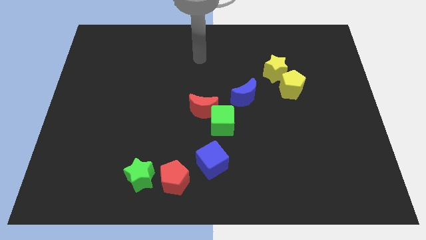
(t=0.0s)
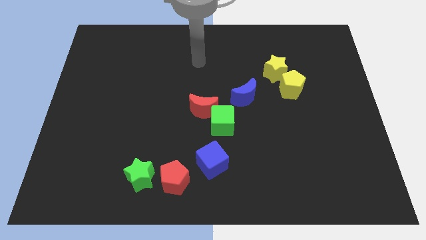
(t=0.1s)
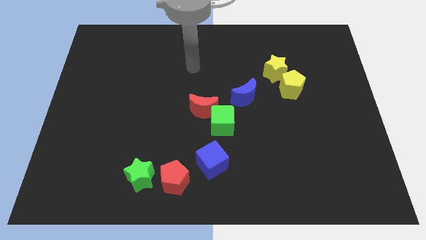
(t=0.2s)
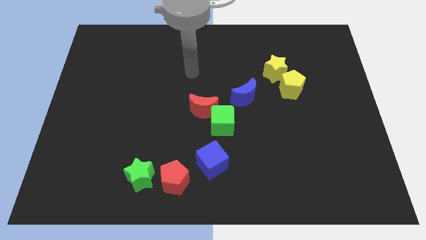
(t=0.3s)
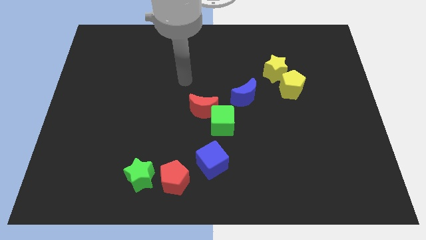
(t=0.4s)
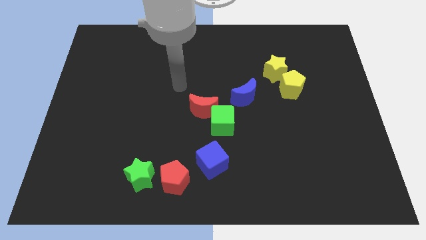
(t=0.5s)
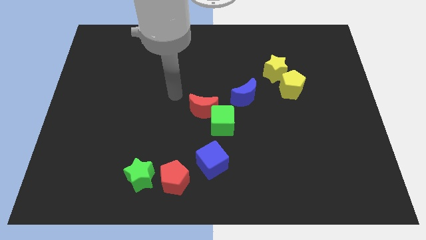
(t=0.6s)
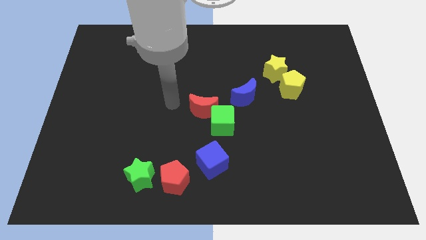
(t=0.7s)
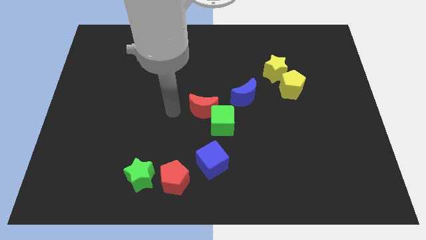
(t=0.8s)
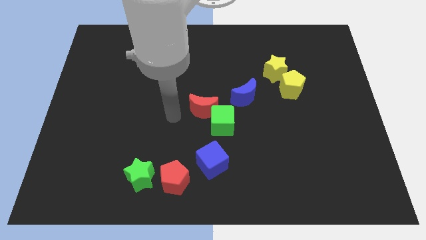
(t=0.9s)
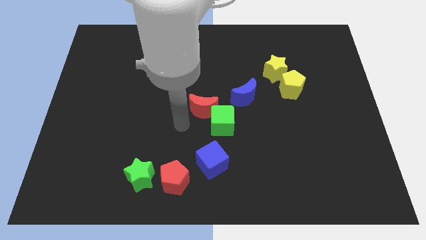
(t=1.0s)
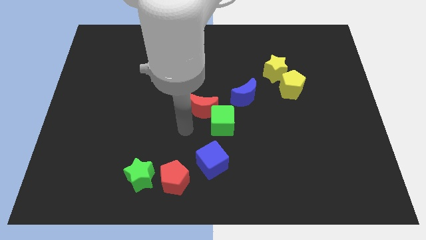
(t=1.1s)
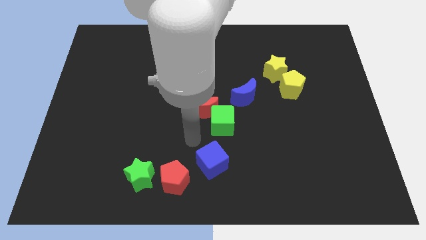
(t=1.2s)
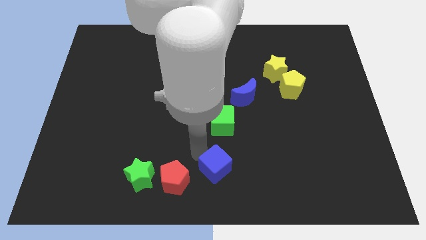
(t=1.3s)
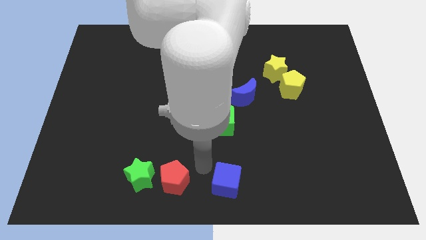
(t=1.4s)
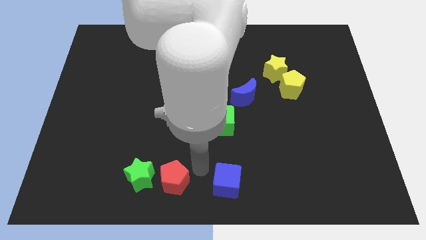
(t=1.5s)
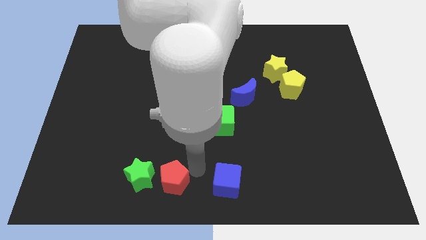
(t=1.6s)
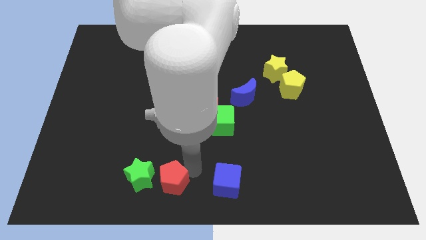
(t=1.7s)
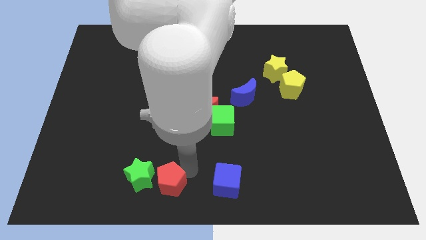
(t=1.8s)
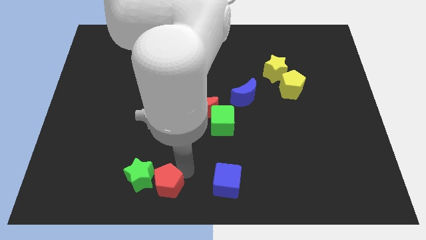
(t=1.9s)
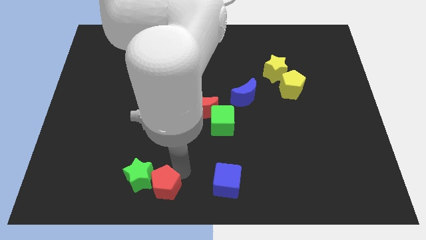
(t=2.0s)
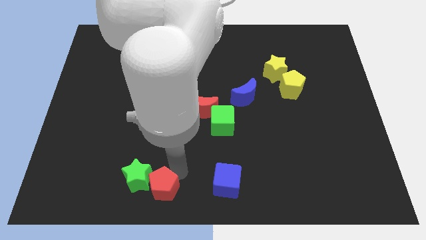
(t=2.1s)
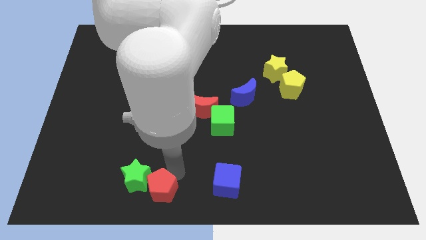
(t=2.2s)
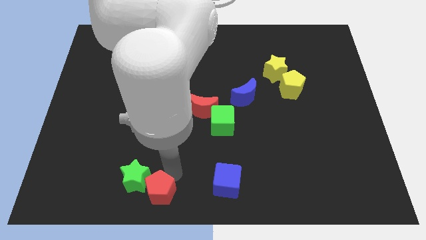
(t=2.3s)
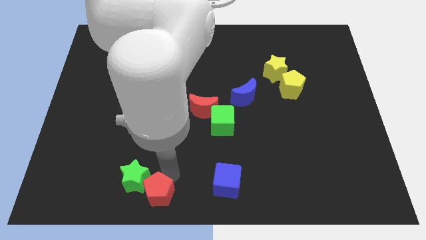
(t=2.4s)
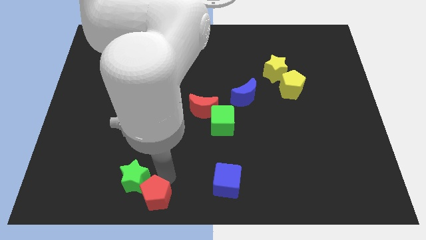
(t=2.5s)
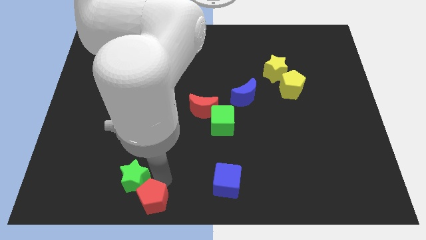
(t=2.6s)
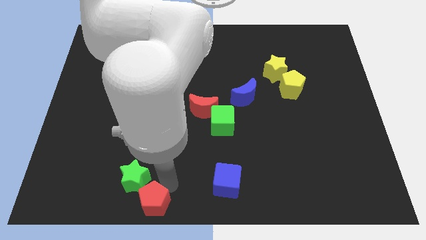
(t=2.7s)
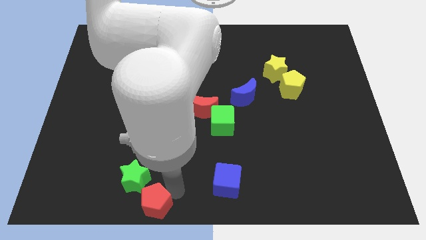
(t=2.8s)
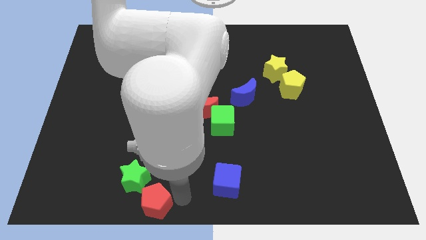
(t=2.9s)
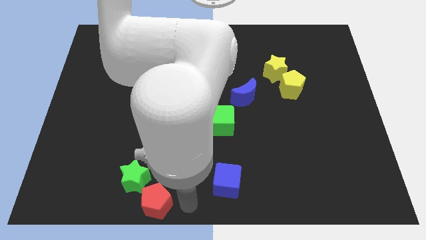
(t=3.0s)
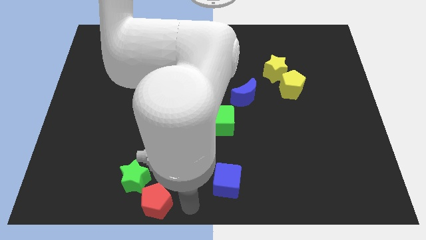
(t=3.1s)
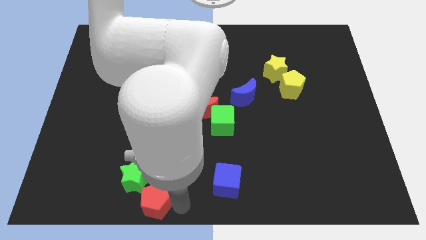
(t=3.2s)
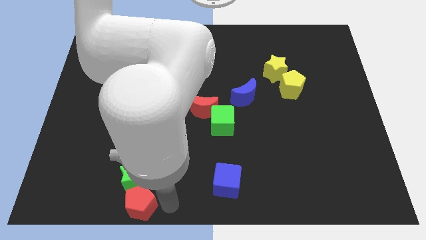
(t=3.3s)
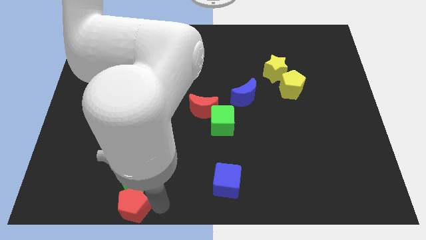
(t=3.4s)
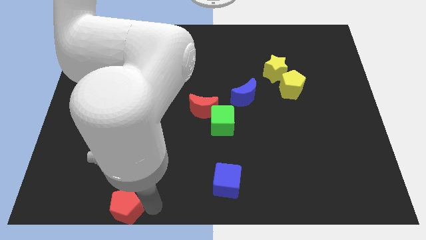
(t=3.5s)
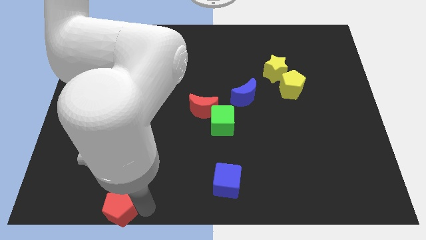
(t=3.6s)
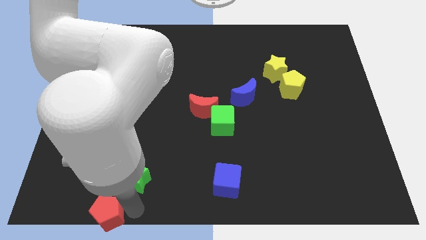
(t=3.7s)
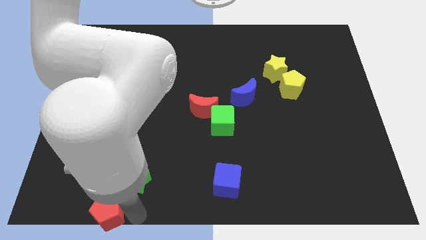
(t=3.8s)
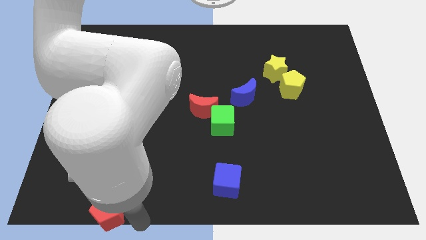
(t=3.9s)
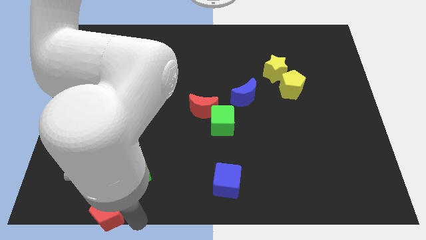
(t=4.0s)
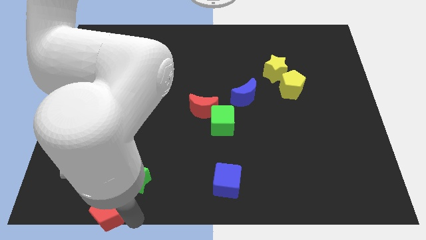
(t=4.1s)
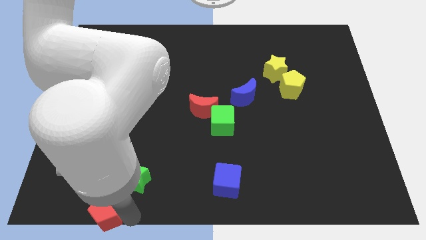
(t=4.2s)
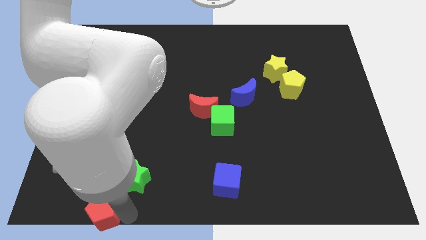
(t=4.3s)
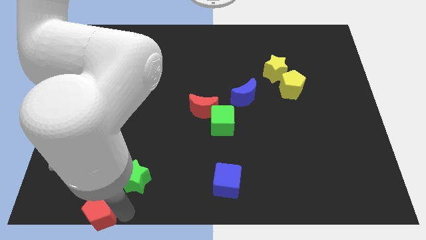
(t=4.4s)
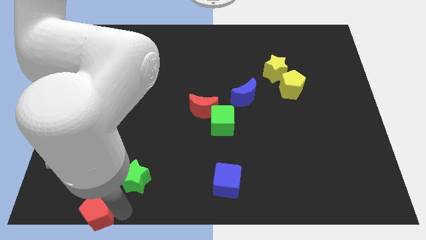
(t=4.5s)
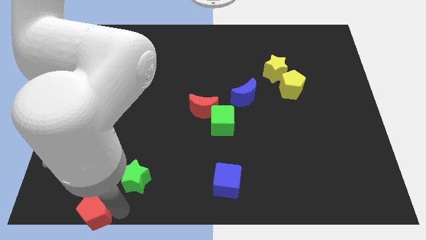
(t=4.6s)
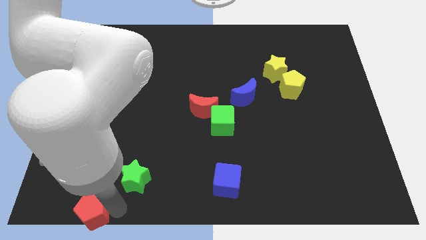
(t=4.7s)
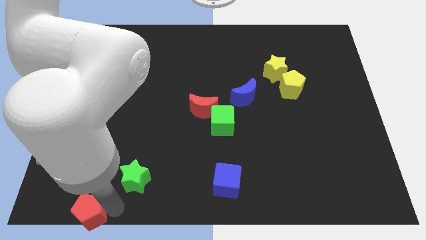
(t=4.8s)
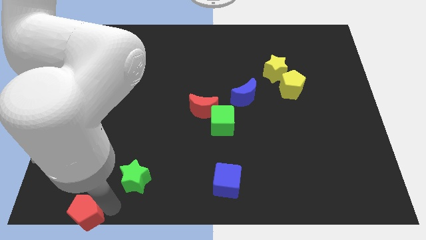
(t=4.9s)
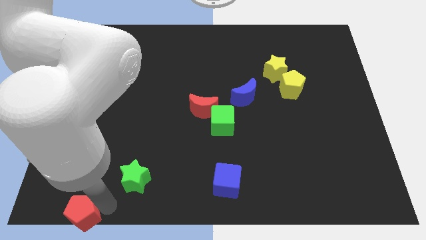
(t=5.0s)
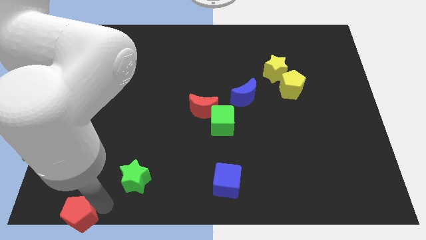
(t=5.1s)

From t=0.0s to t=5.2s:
move the red pentagon to the bottom left corner
